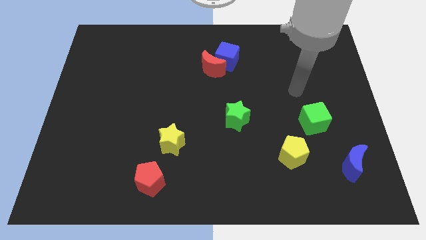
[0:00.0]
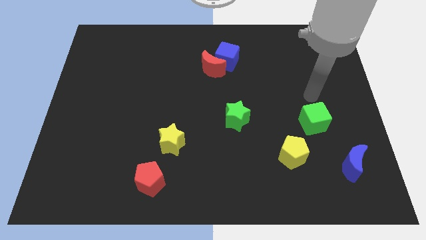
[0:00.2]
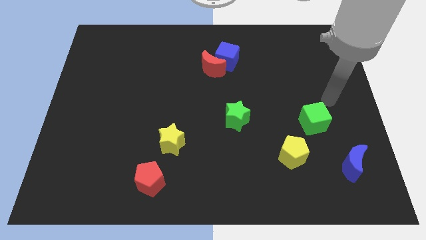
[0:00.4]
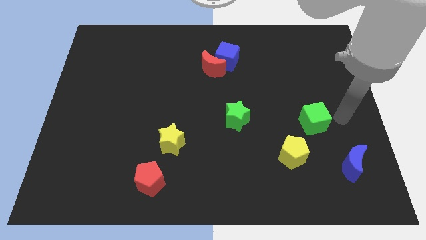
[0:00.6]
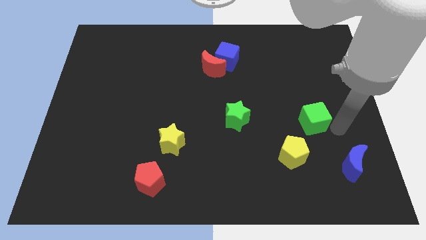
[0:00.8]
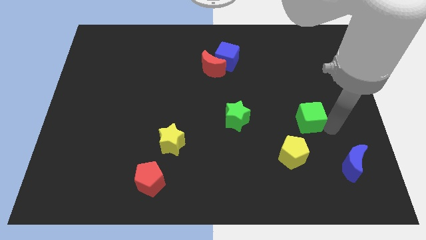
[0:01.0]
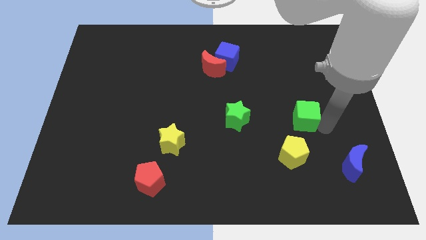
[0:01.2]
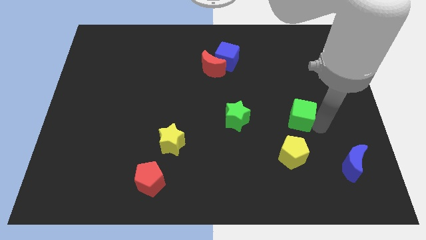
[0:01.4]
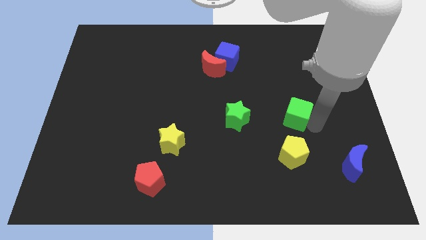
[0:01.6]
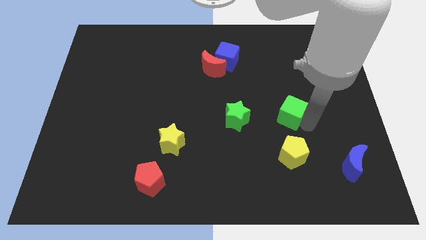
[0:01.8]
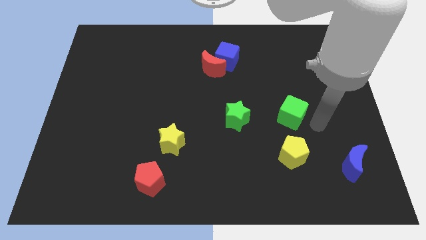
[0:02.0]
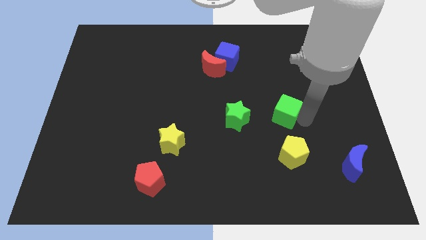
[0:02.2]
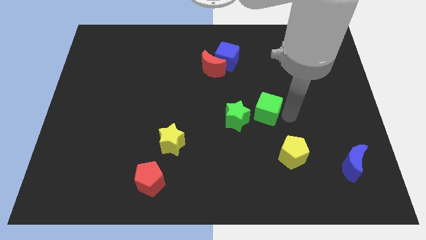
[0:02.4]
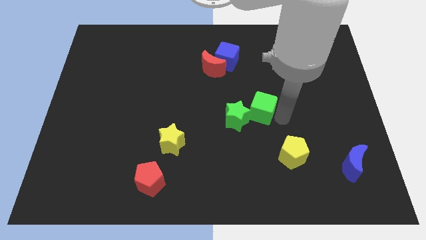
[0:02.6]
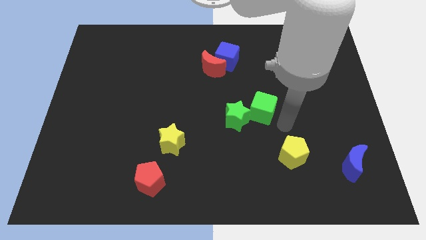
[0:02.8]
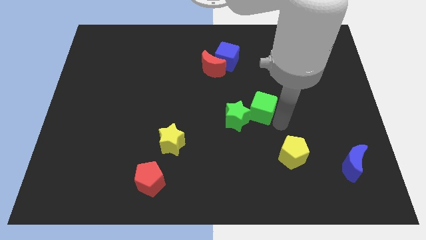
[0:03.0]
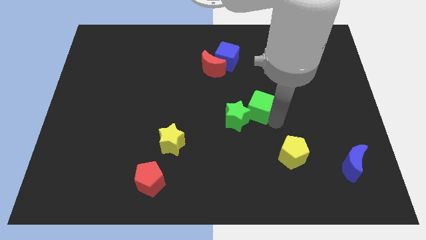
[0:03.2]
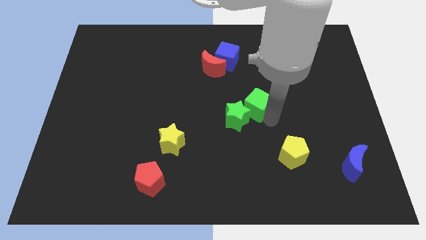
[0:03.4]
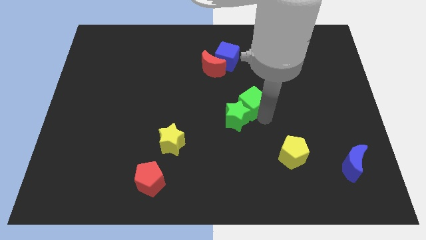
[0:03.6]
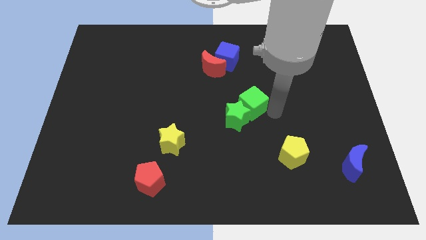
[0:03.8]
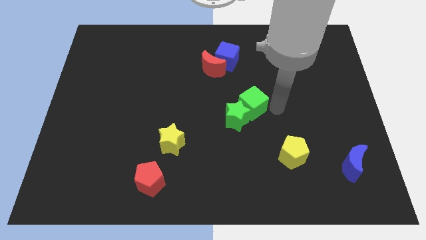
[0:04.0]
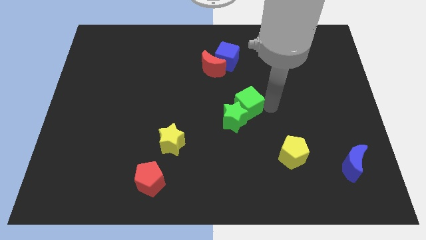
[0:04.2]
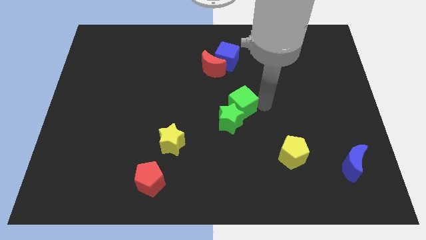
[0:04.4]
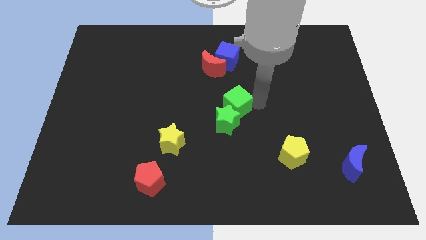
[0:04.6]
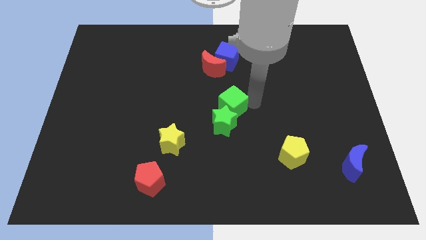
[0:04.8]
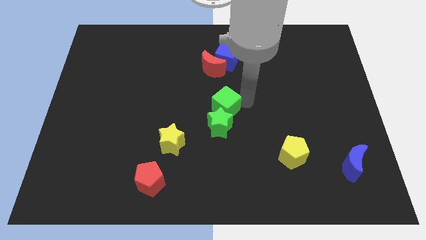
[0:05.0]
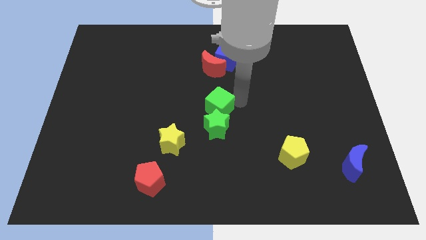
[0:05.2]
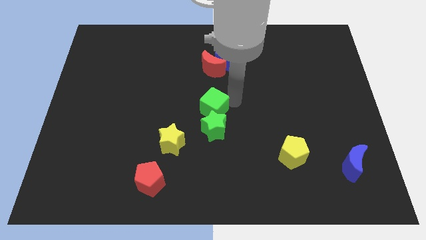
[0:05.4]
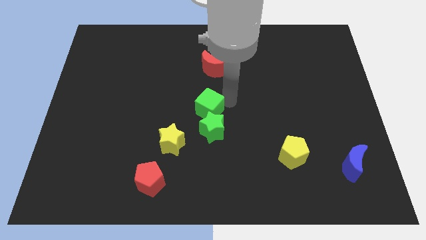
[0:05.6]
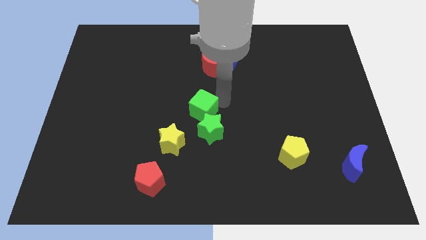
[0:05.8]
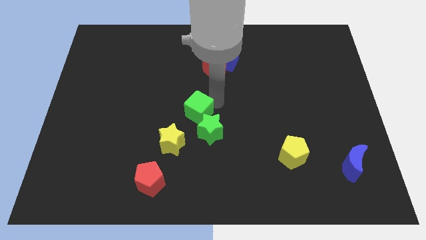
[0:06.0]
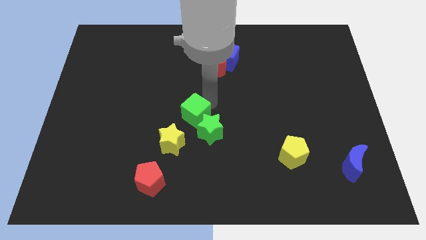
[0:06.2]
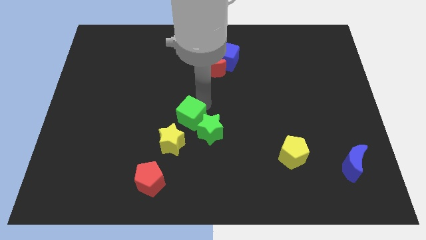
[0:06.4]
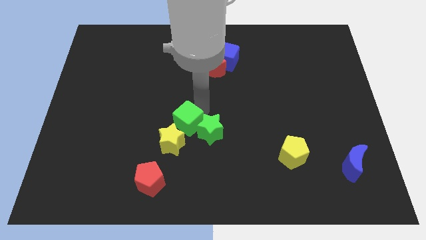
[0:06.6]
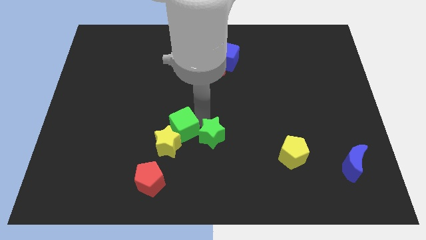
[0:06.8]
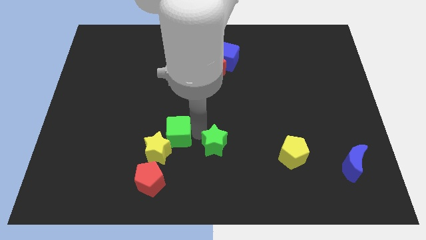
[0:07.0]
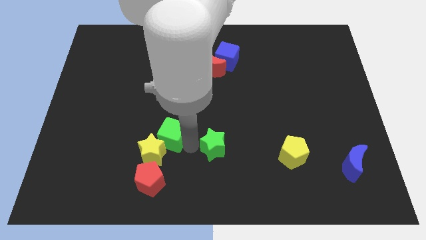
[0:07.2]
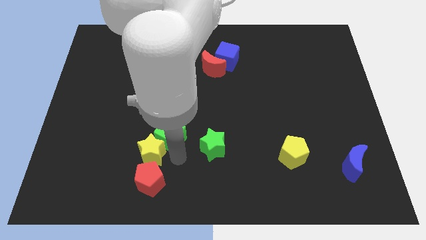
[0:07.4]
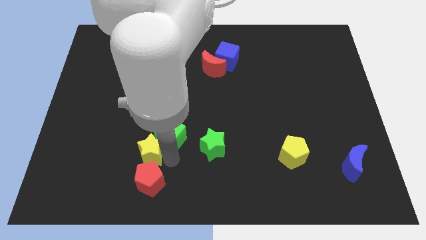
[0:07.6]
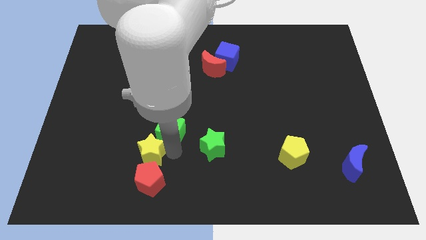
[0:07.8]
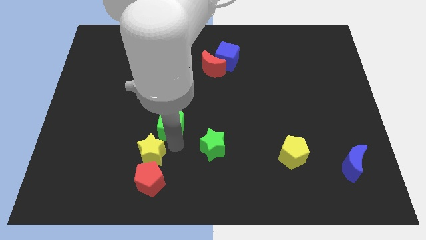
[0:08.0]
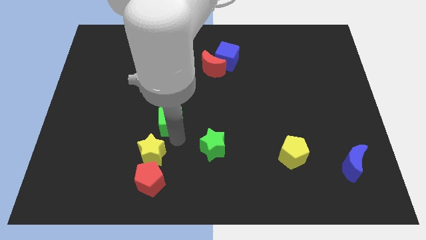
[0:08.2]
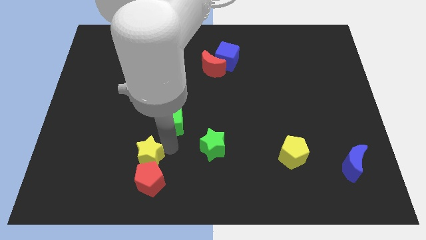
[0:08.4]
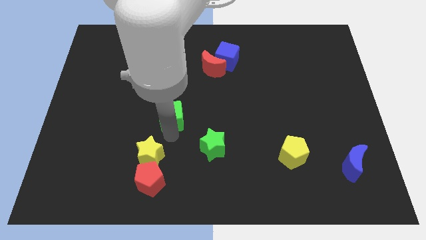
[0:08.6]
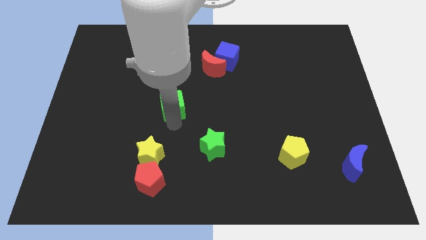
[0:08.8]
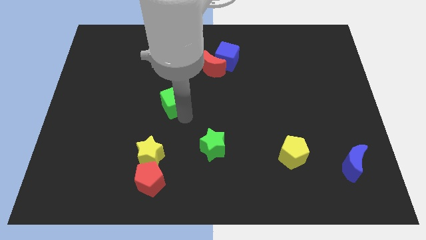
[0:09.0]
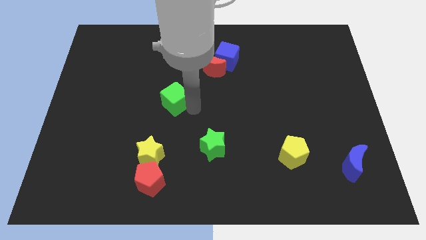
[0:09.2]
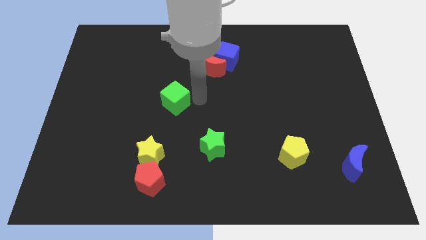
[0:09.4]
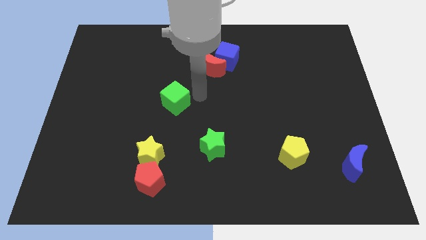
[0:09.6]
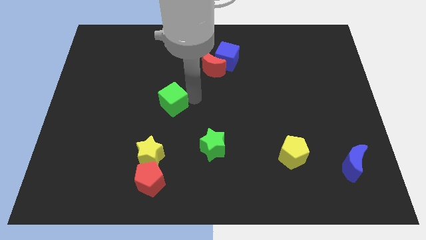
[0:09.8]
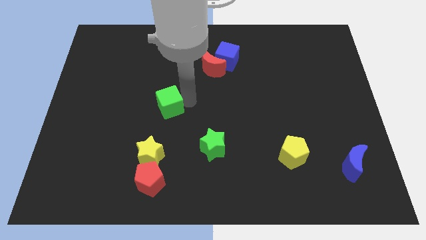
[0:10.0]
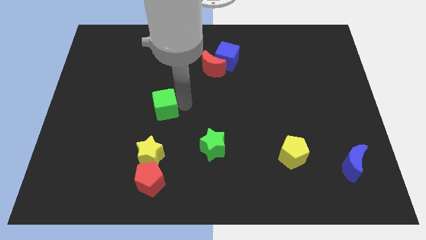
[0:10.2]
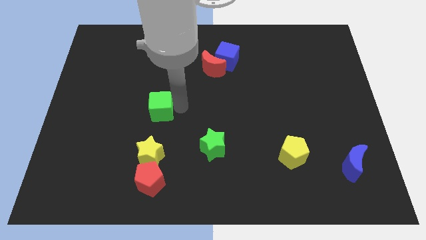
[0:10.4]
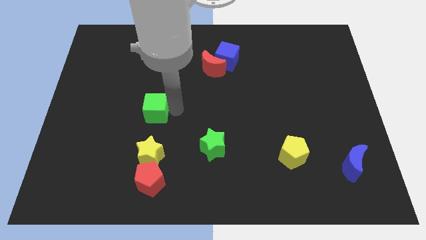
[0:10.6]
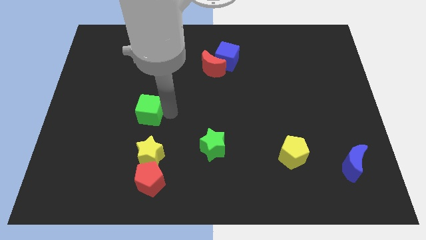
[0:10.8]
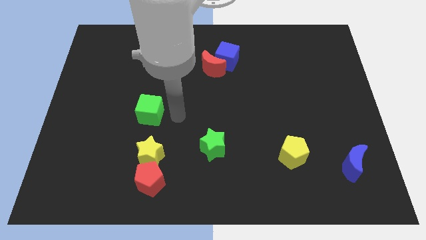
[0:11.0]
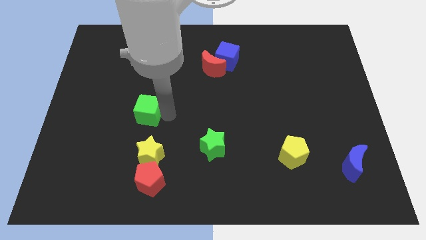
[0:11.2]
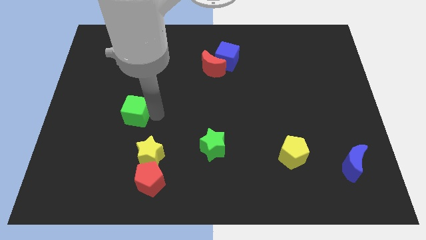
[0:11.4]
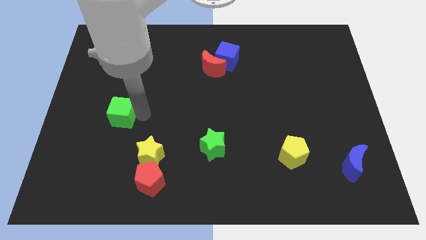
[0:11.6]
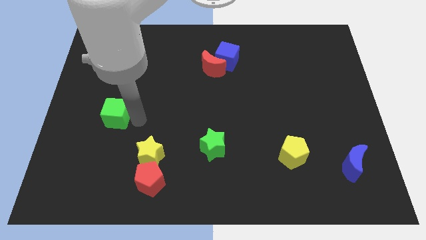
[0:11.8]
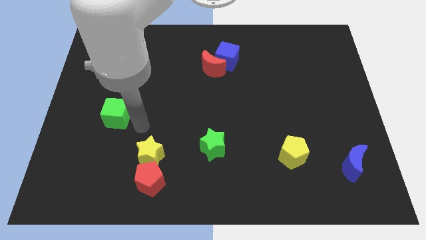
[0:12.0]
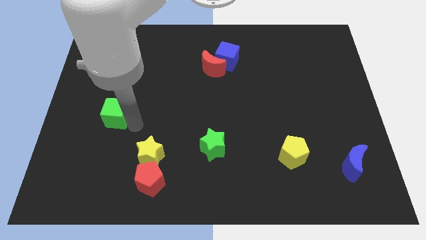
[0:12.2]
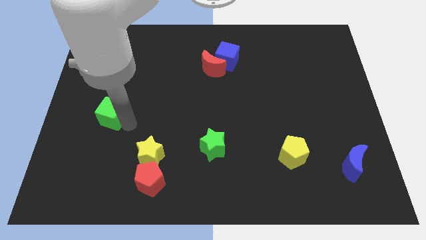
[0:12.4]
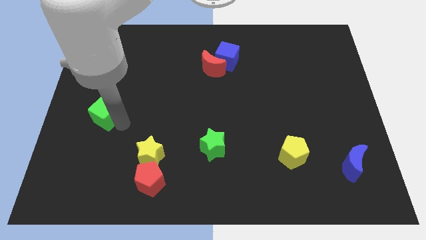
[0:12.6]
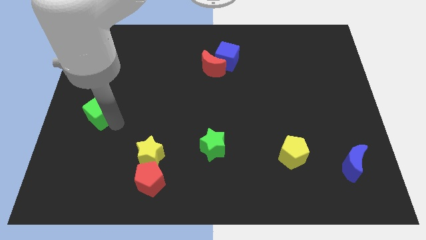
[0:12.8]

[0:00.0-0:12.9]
put the green cube to the center left
